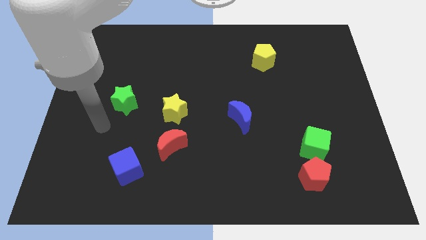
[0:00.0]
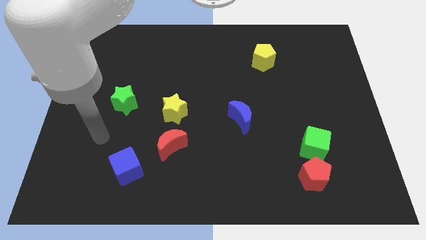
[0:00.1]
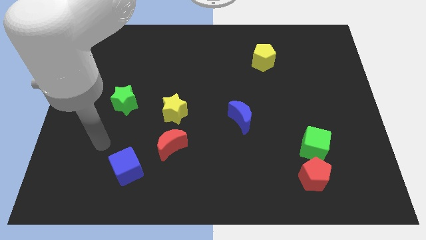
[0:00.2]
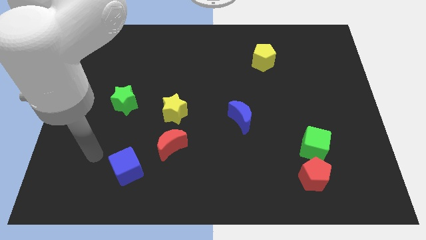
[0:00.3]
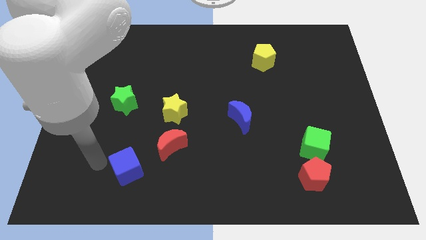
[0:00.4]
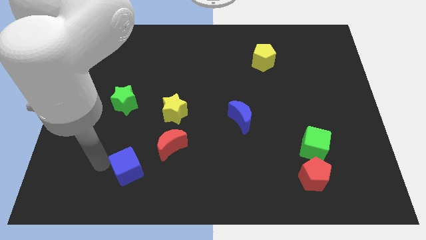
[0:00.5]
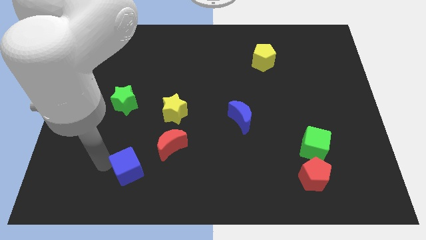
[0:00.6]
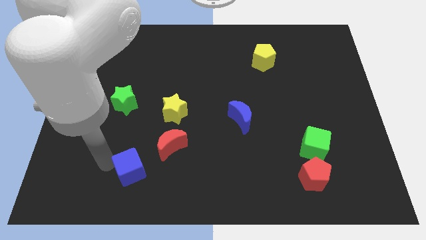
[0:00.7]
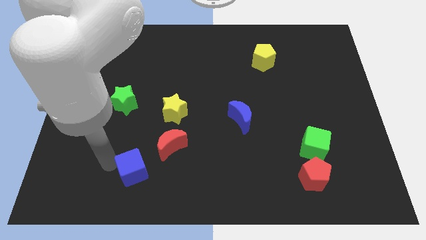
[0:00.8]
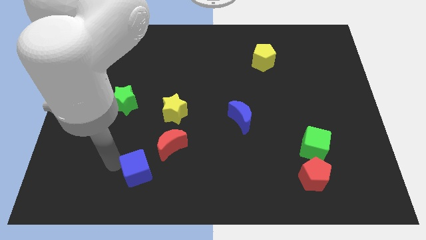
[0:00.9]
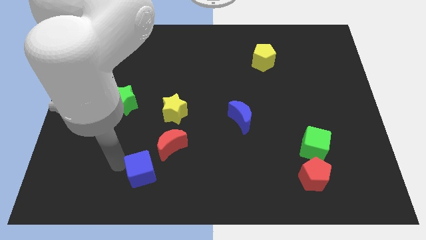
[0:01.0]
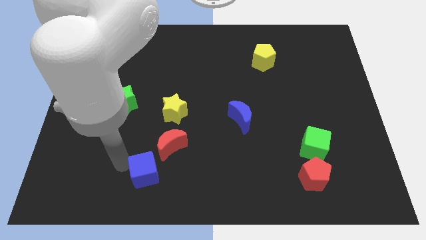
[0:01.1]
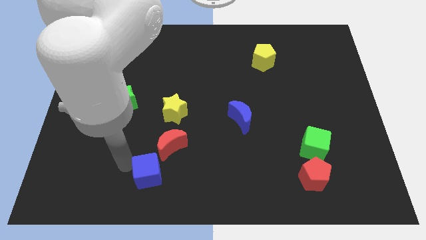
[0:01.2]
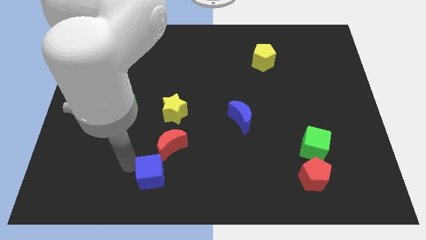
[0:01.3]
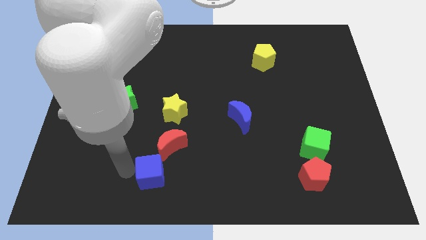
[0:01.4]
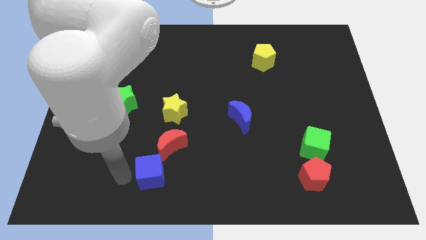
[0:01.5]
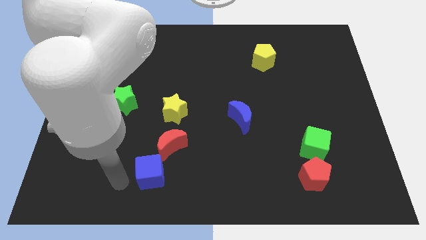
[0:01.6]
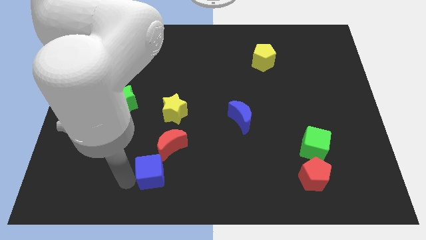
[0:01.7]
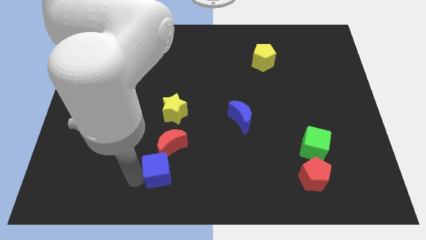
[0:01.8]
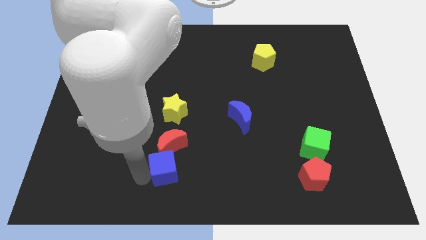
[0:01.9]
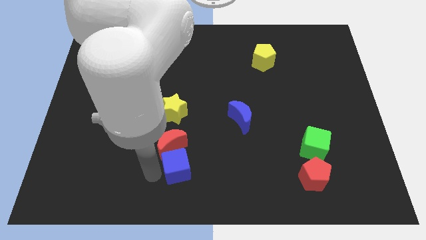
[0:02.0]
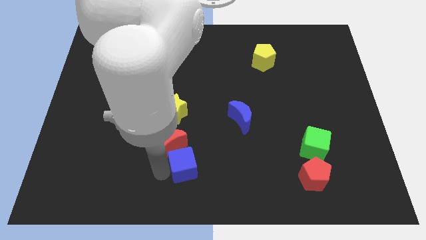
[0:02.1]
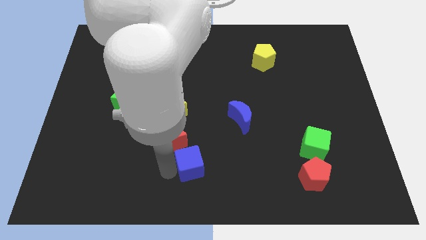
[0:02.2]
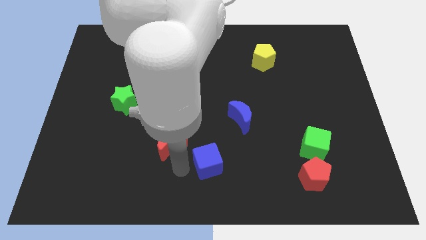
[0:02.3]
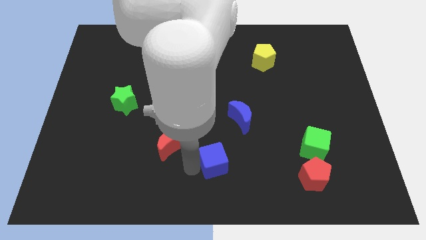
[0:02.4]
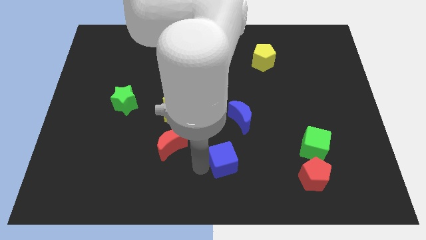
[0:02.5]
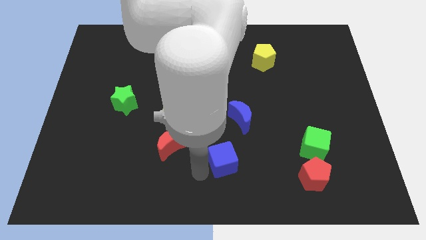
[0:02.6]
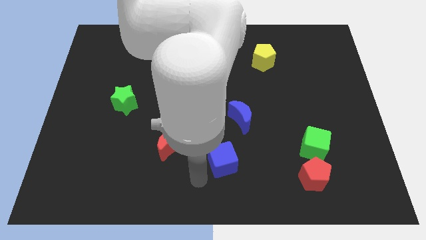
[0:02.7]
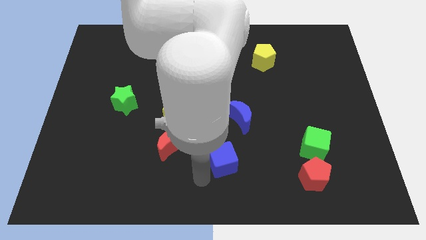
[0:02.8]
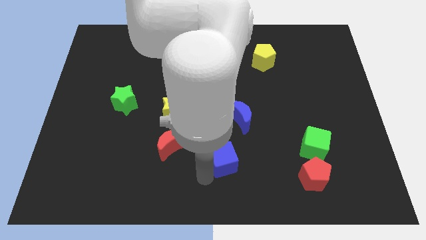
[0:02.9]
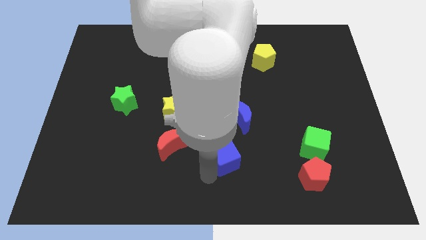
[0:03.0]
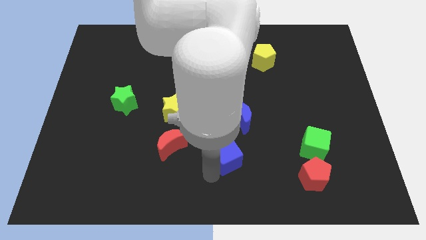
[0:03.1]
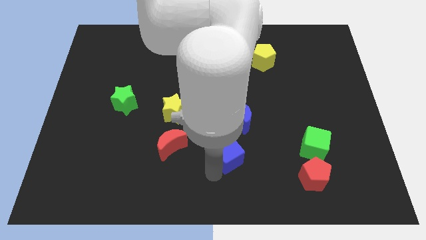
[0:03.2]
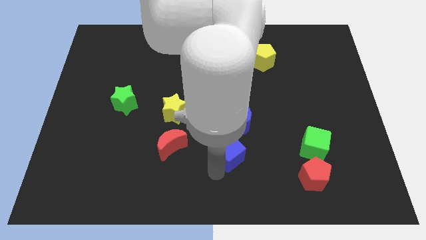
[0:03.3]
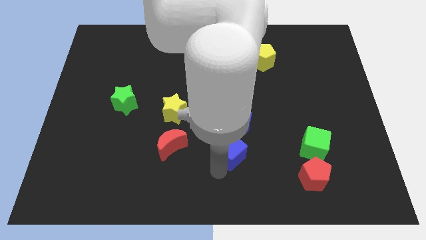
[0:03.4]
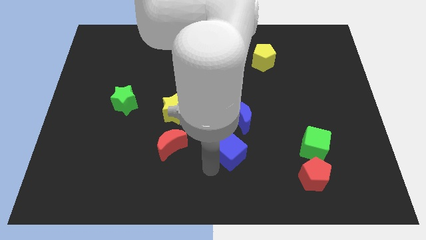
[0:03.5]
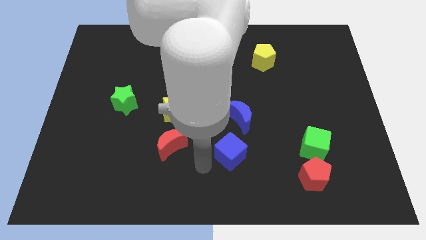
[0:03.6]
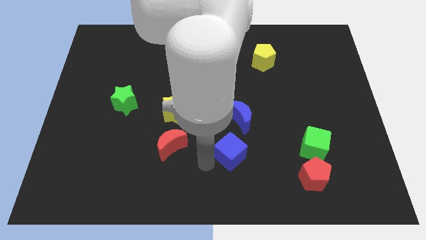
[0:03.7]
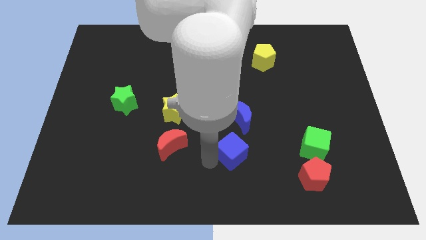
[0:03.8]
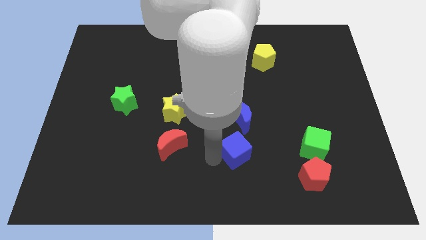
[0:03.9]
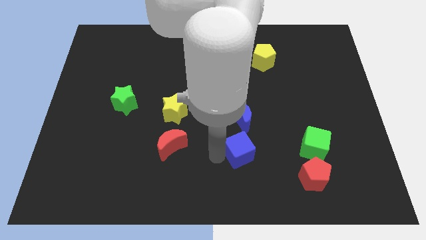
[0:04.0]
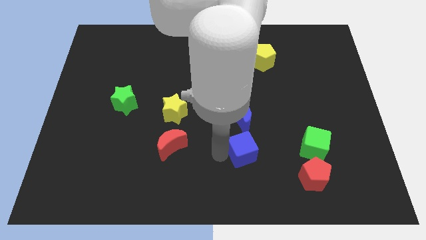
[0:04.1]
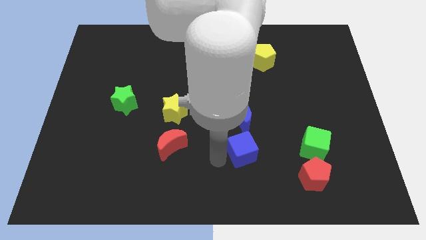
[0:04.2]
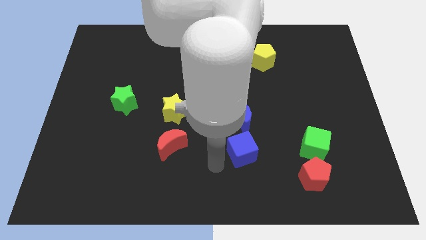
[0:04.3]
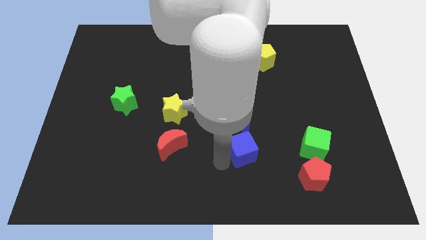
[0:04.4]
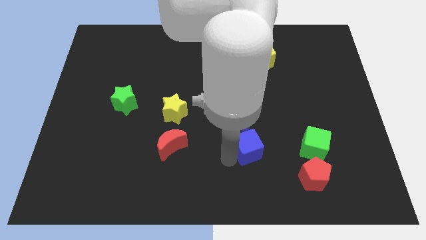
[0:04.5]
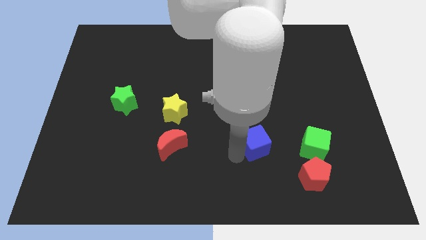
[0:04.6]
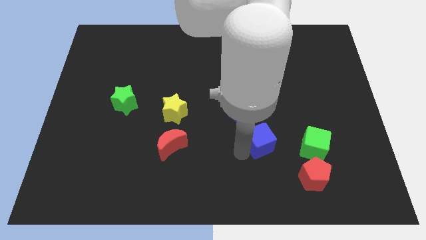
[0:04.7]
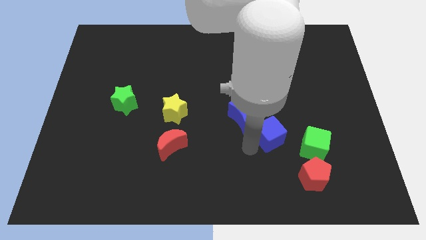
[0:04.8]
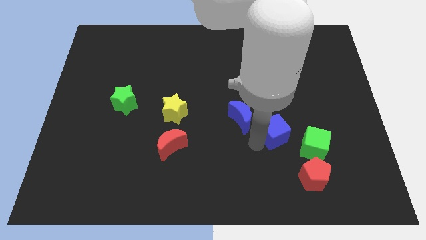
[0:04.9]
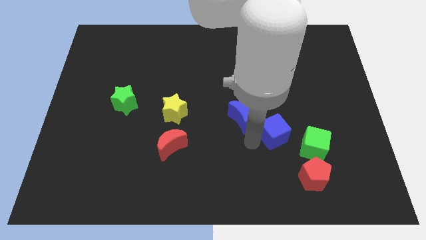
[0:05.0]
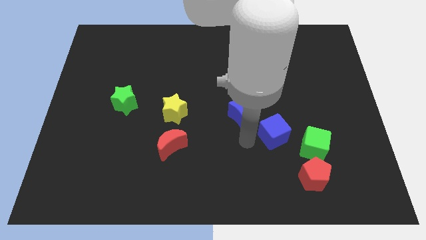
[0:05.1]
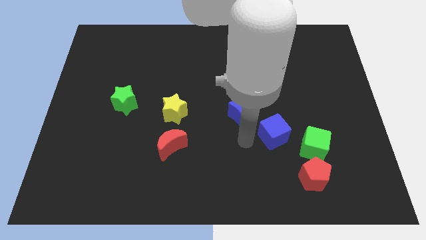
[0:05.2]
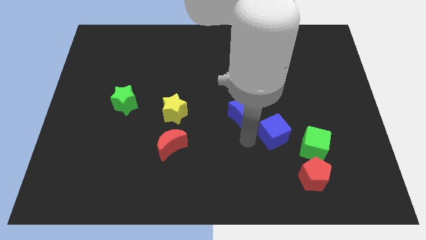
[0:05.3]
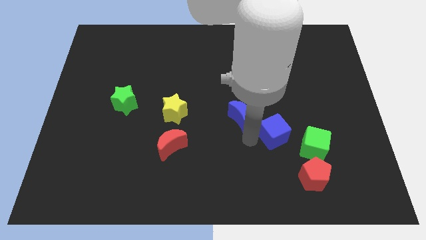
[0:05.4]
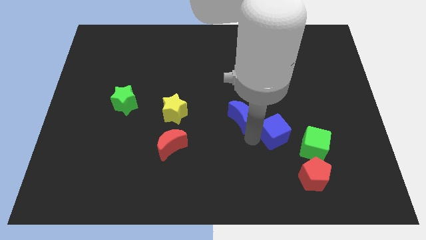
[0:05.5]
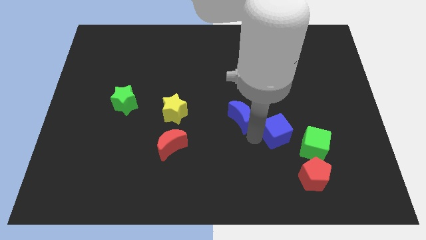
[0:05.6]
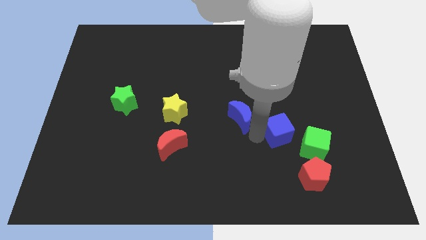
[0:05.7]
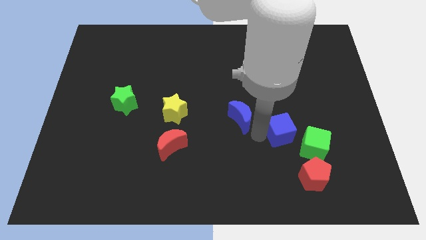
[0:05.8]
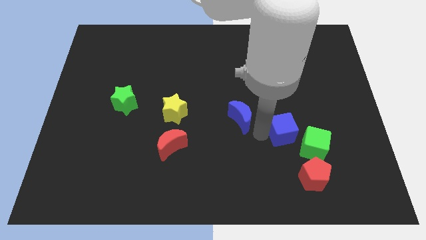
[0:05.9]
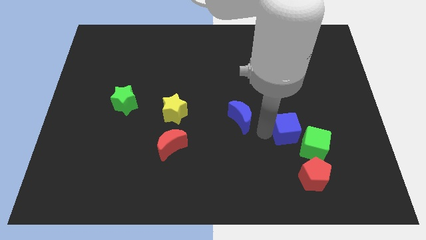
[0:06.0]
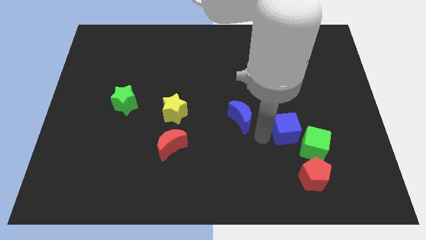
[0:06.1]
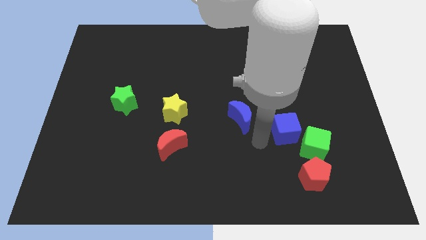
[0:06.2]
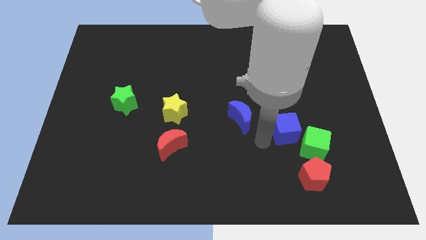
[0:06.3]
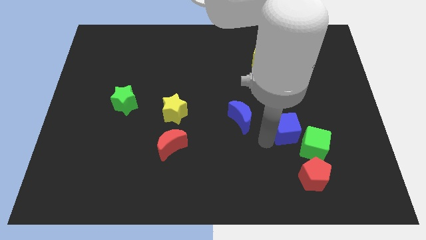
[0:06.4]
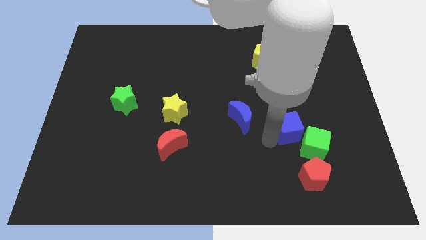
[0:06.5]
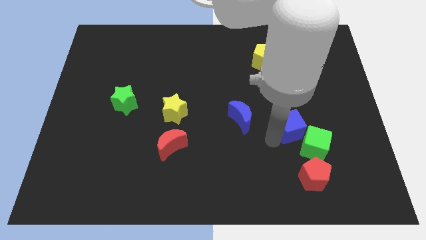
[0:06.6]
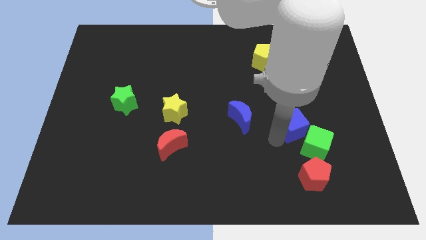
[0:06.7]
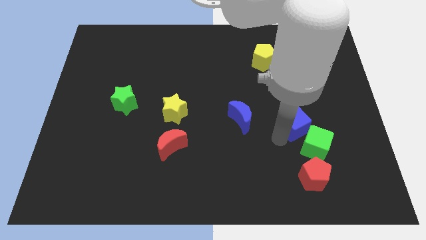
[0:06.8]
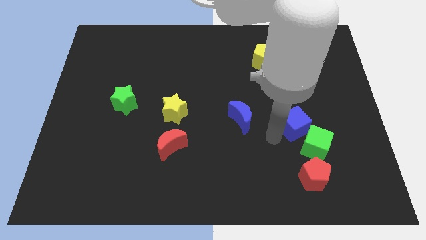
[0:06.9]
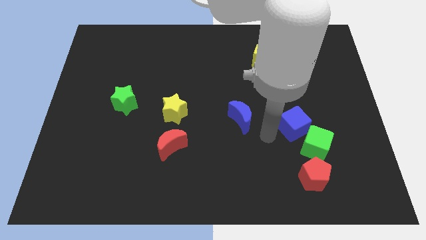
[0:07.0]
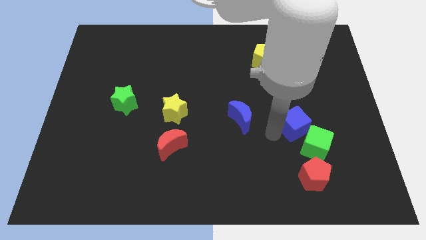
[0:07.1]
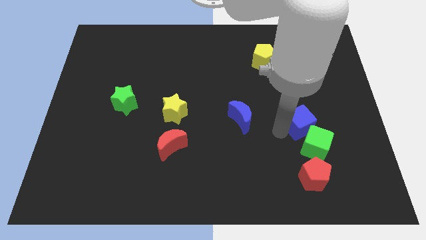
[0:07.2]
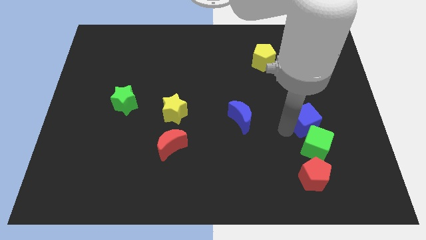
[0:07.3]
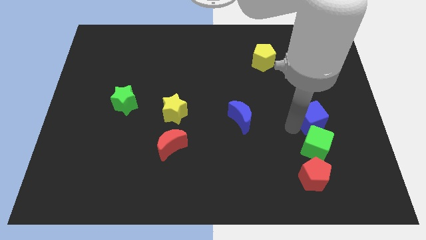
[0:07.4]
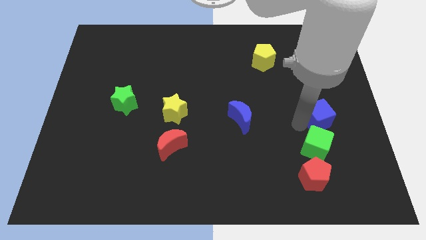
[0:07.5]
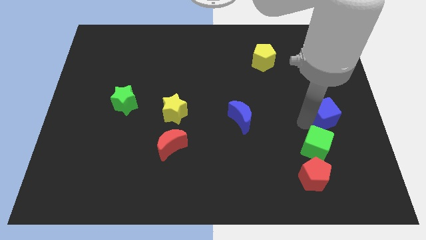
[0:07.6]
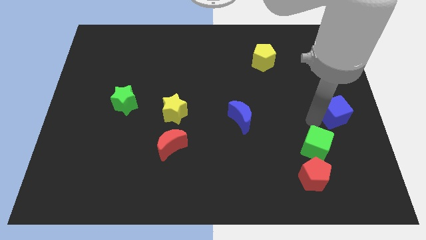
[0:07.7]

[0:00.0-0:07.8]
put the blue cube to the right side
